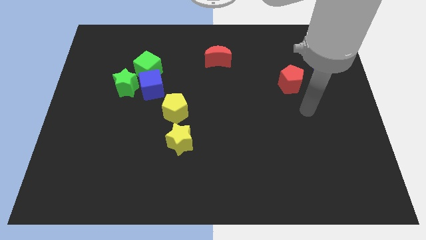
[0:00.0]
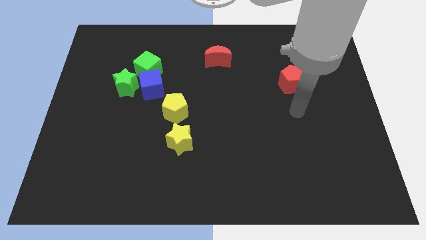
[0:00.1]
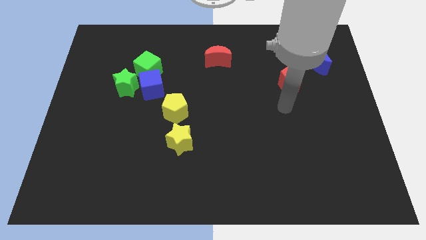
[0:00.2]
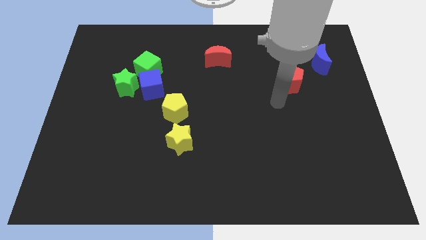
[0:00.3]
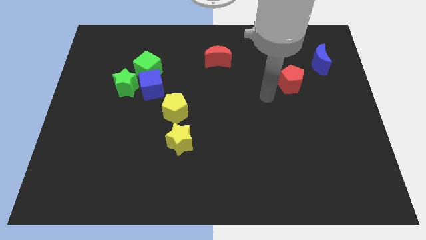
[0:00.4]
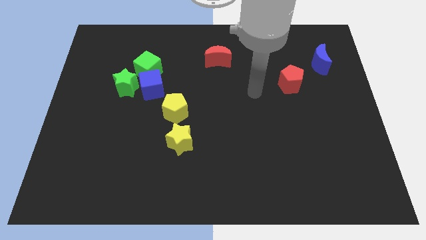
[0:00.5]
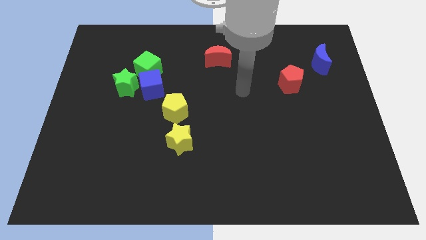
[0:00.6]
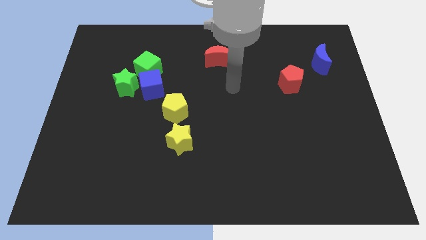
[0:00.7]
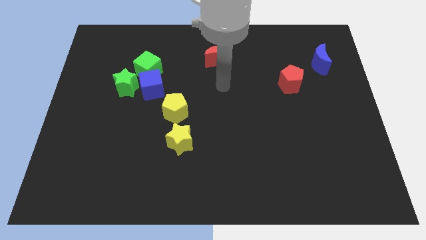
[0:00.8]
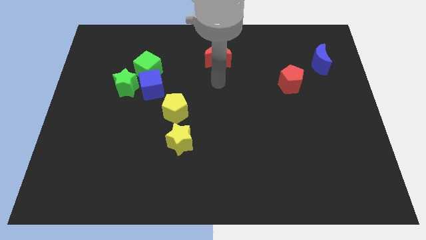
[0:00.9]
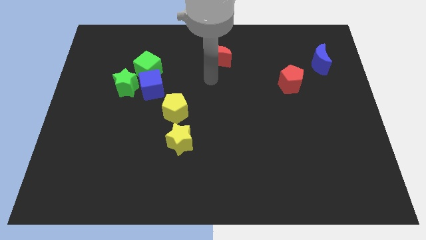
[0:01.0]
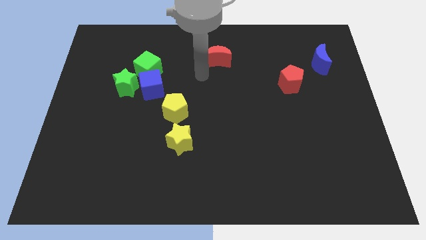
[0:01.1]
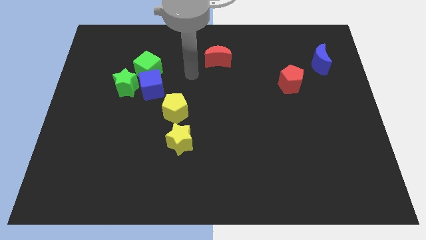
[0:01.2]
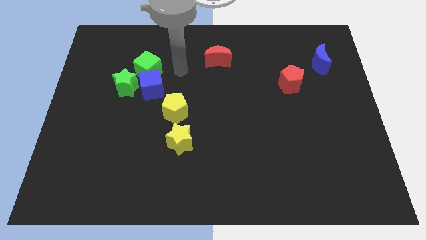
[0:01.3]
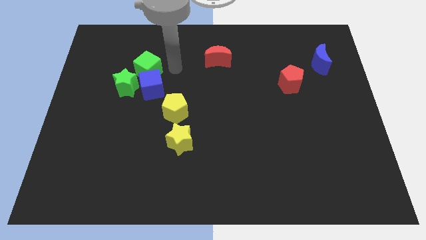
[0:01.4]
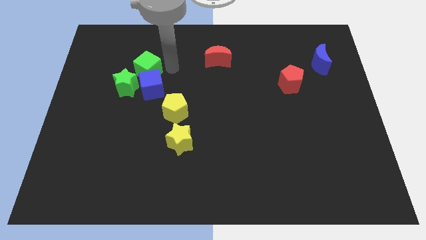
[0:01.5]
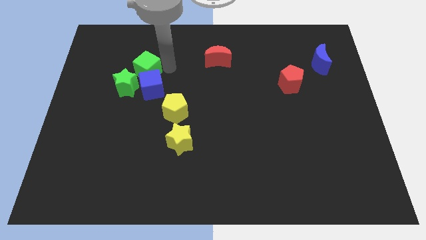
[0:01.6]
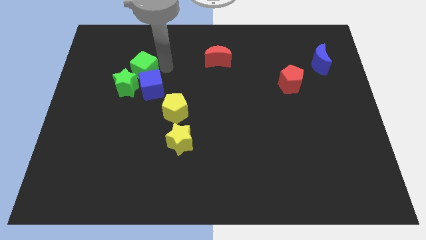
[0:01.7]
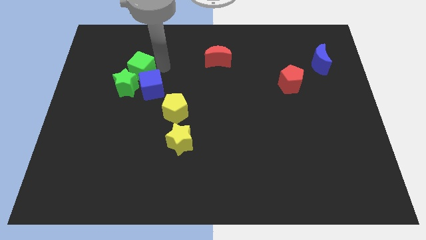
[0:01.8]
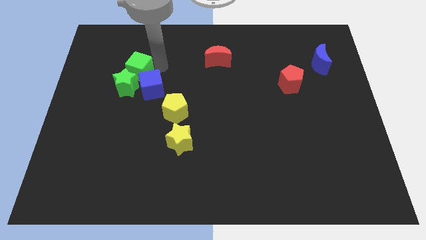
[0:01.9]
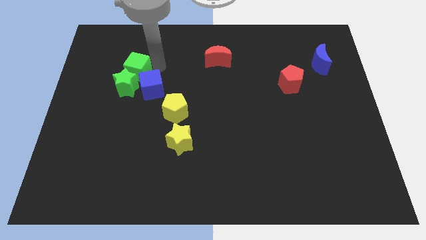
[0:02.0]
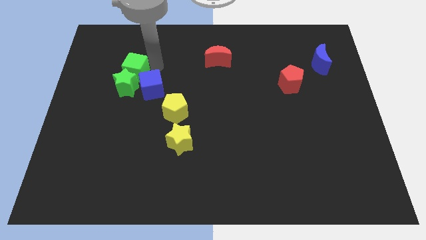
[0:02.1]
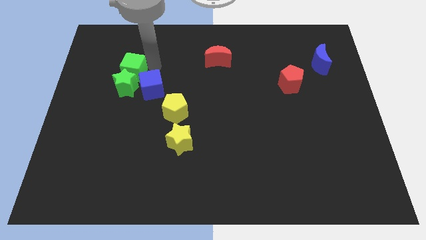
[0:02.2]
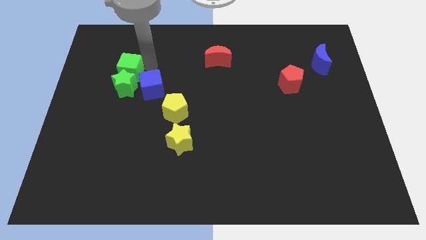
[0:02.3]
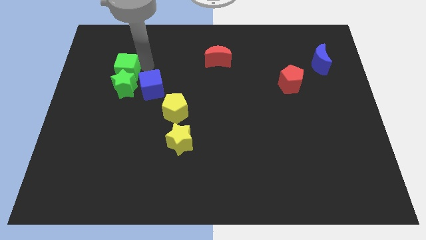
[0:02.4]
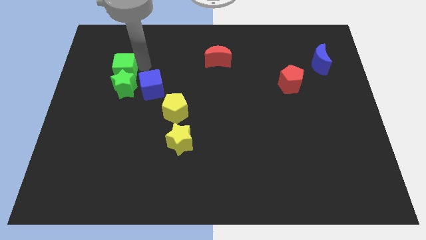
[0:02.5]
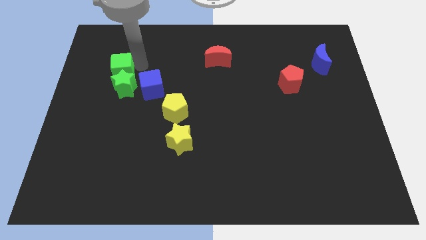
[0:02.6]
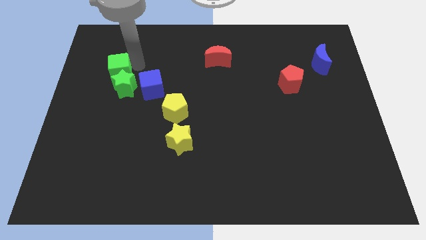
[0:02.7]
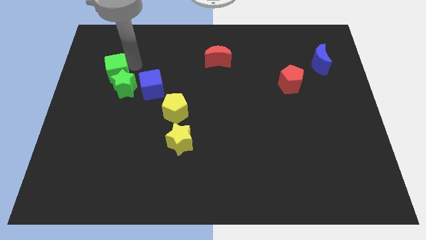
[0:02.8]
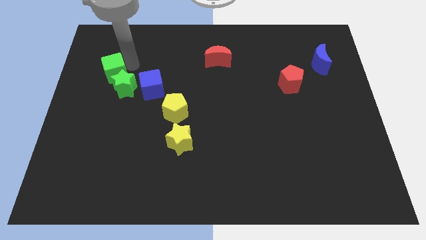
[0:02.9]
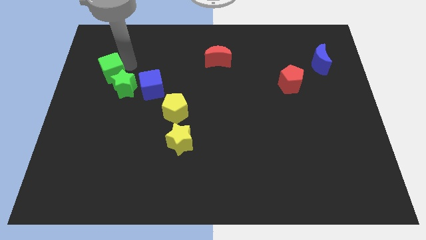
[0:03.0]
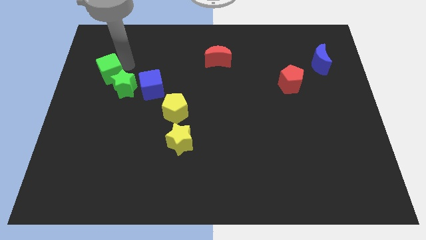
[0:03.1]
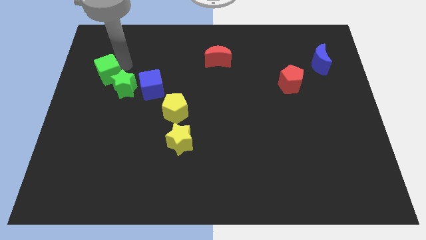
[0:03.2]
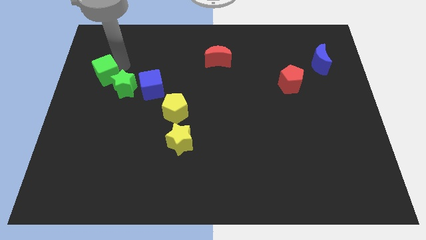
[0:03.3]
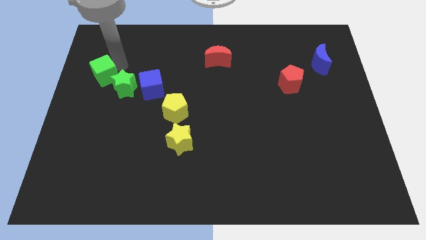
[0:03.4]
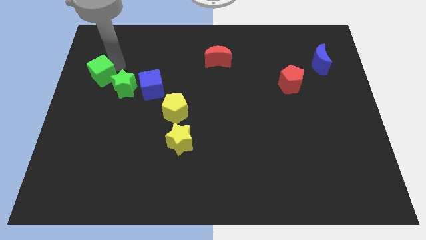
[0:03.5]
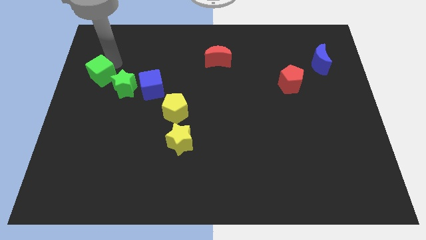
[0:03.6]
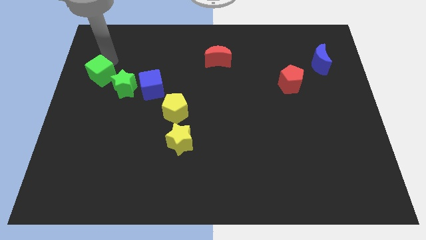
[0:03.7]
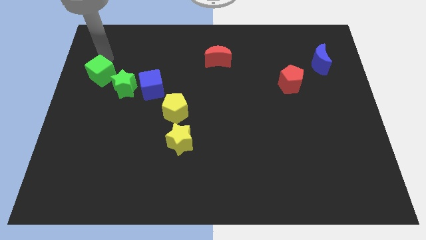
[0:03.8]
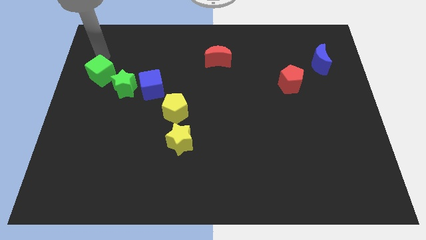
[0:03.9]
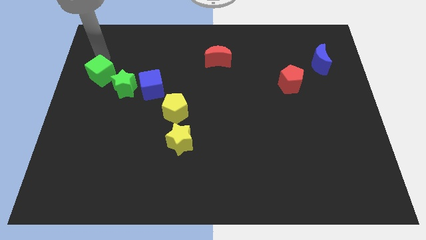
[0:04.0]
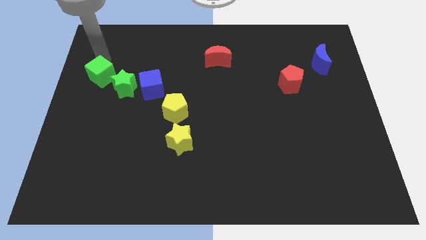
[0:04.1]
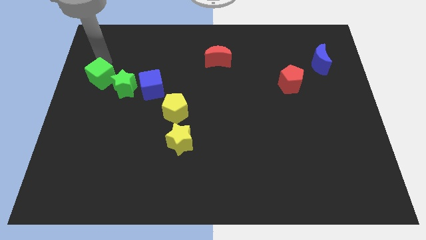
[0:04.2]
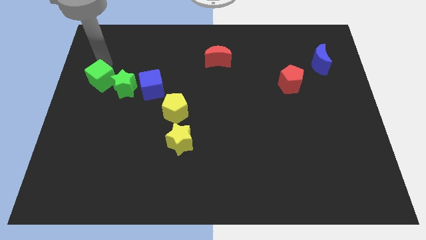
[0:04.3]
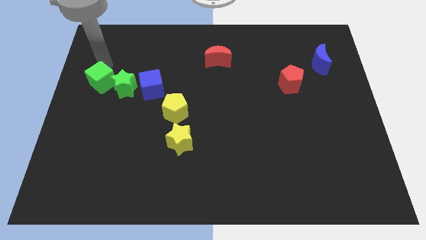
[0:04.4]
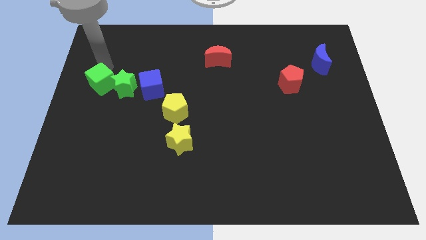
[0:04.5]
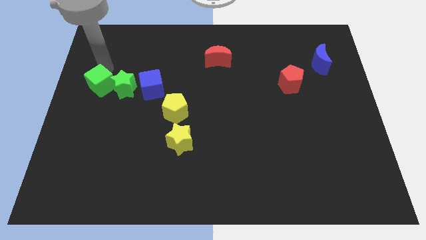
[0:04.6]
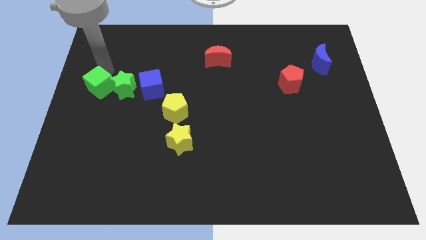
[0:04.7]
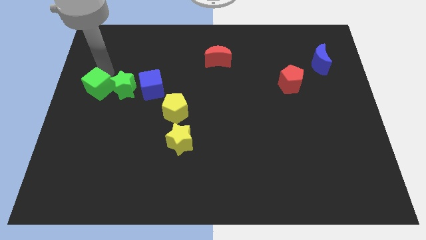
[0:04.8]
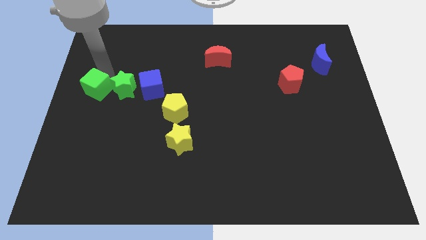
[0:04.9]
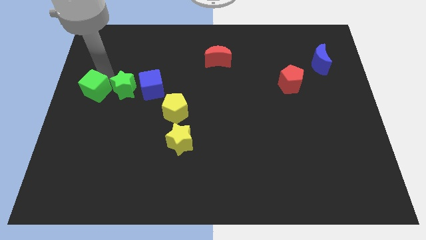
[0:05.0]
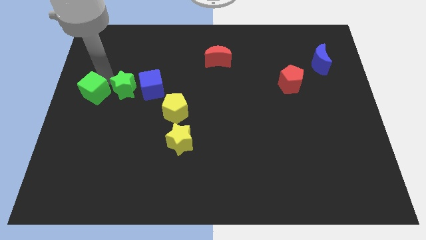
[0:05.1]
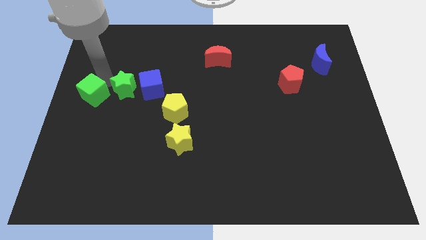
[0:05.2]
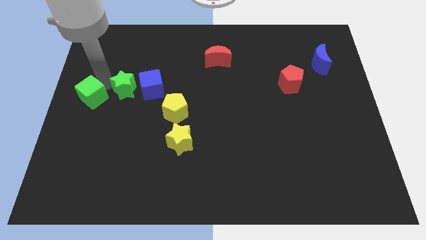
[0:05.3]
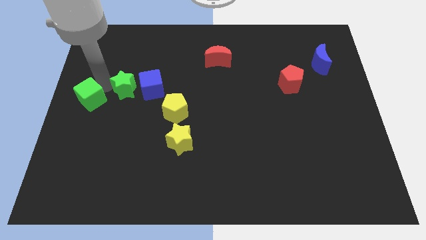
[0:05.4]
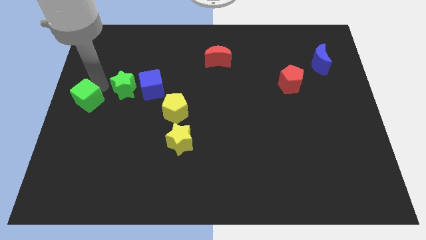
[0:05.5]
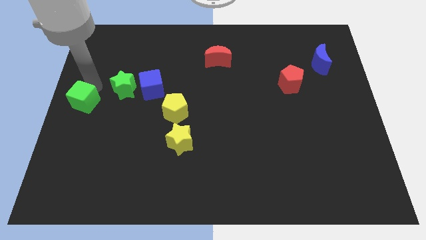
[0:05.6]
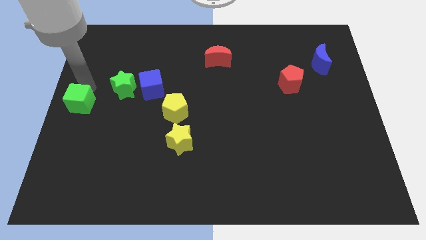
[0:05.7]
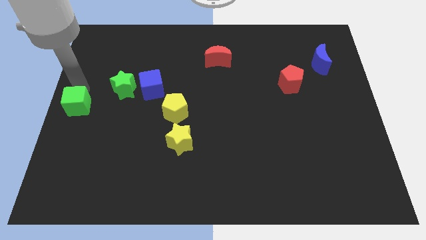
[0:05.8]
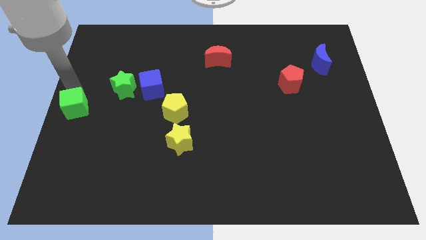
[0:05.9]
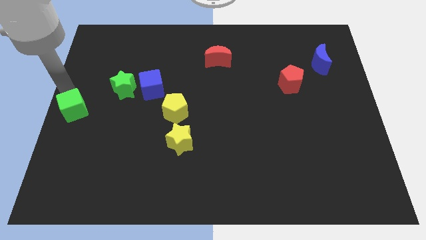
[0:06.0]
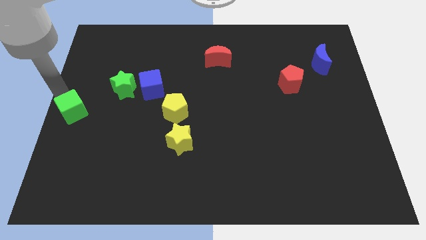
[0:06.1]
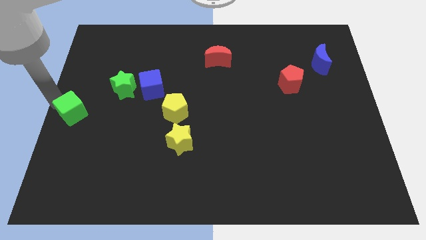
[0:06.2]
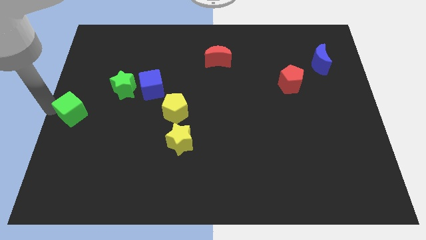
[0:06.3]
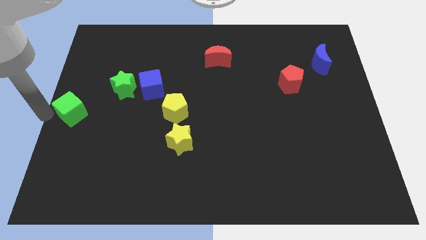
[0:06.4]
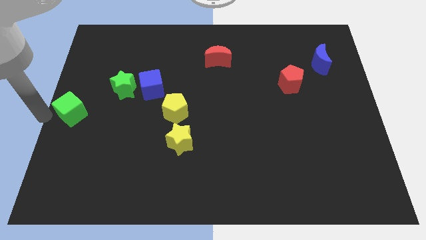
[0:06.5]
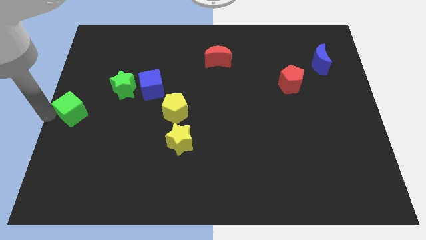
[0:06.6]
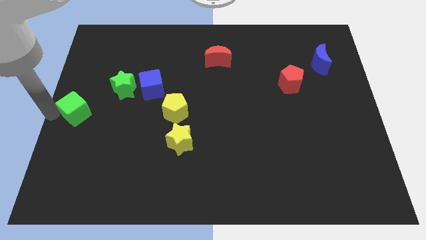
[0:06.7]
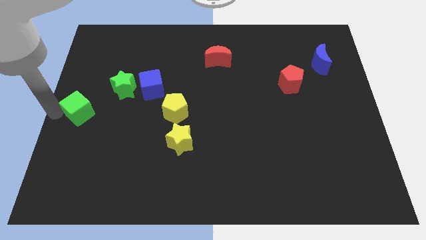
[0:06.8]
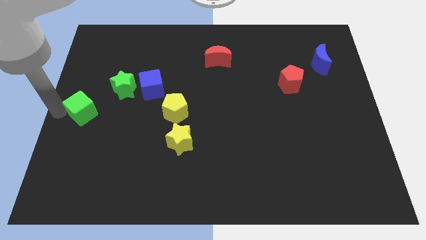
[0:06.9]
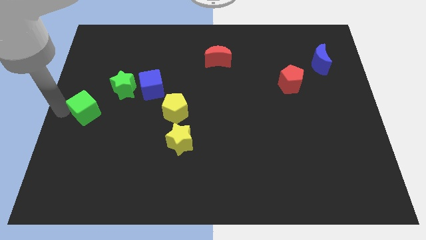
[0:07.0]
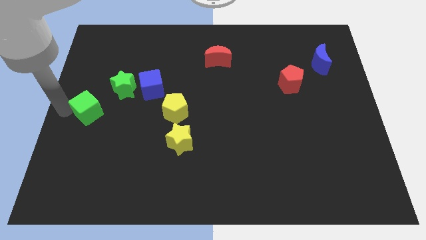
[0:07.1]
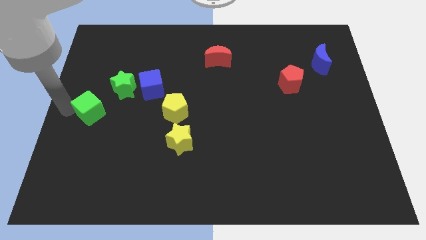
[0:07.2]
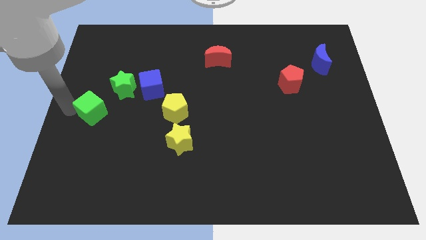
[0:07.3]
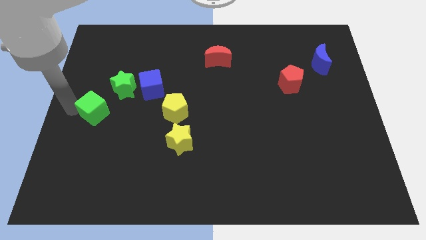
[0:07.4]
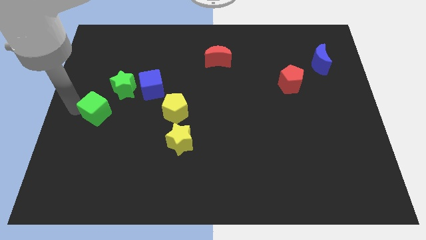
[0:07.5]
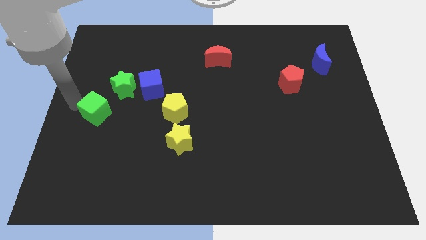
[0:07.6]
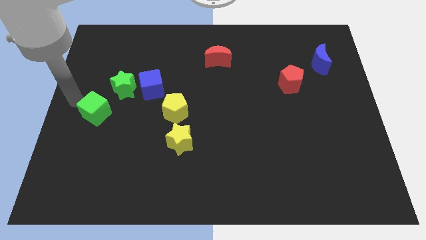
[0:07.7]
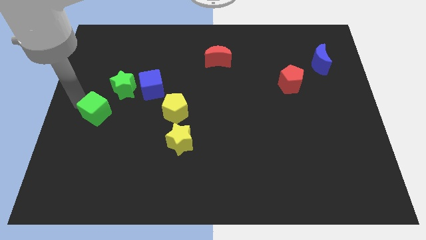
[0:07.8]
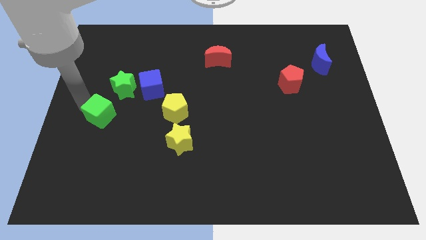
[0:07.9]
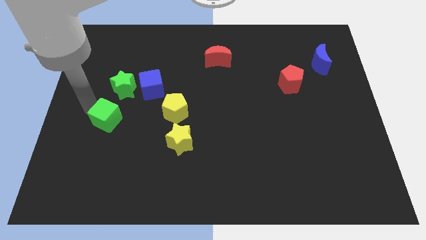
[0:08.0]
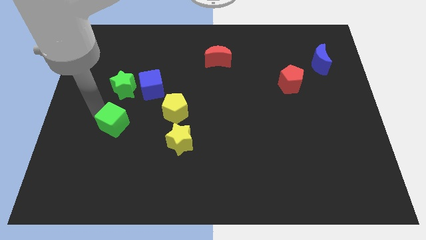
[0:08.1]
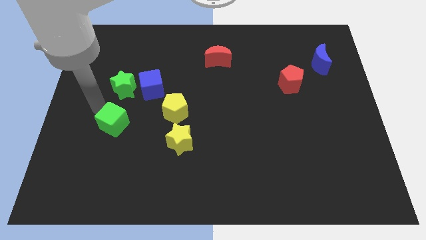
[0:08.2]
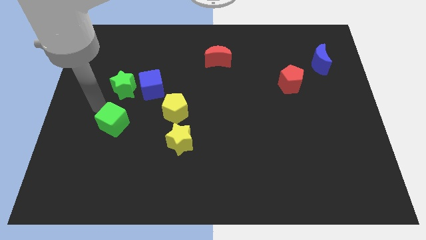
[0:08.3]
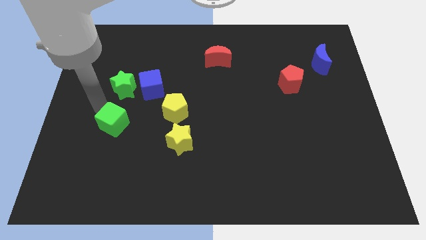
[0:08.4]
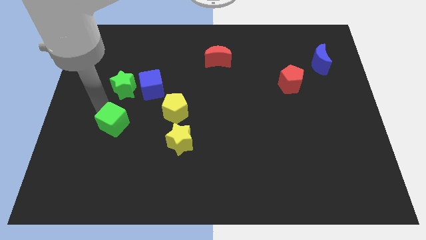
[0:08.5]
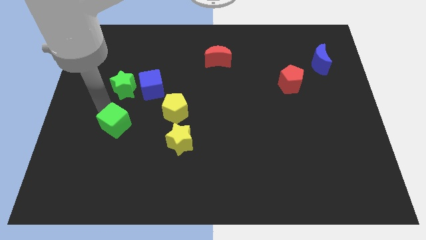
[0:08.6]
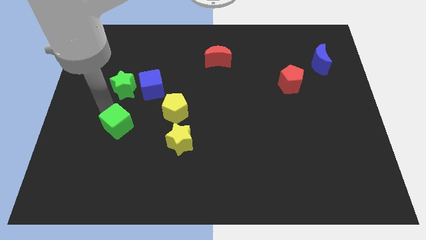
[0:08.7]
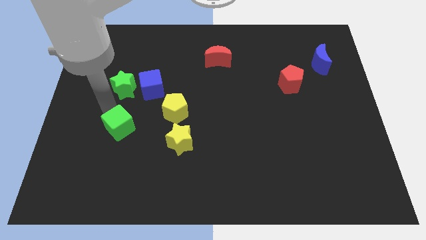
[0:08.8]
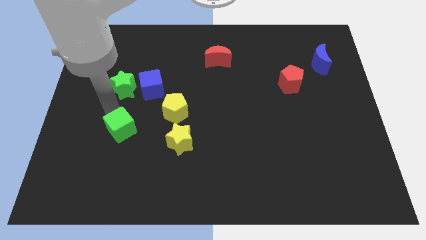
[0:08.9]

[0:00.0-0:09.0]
put the green cube to the left side of the yellow star
